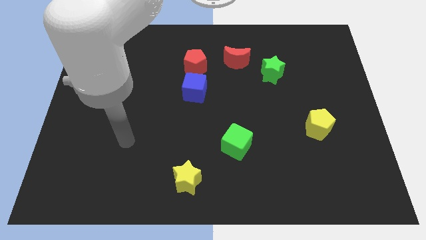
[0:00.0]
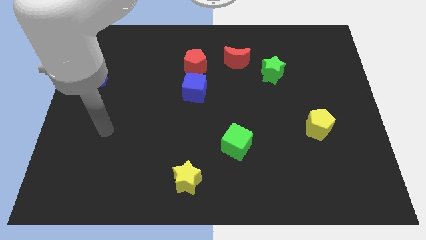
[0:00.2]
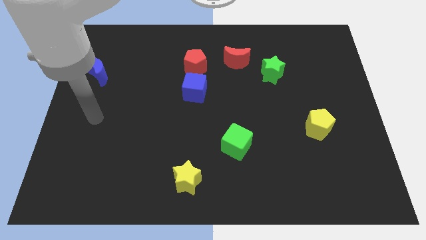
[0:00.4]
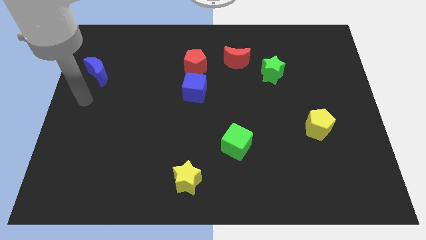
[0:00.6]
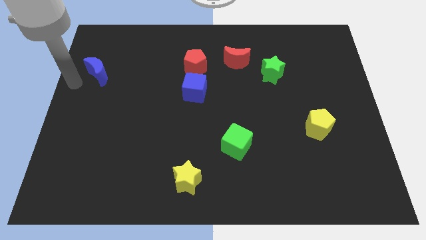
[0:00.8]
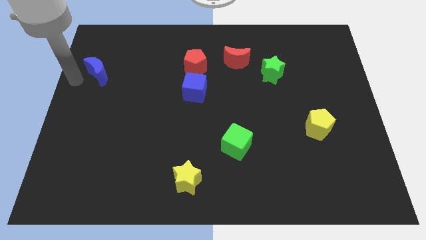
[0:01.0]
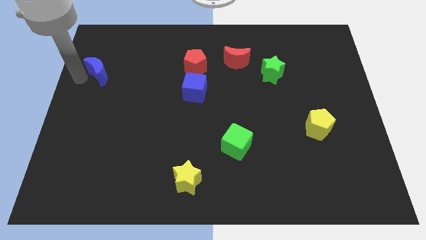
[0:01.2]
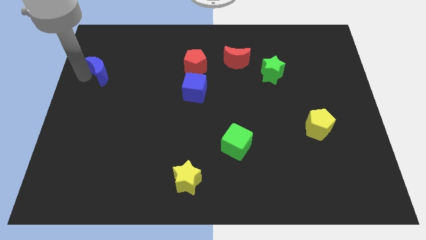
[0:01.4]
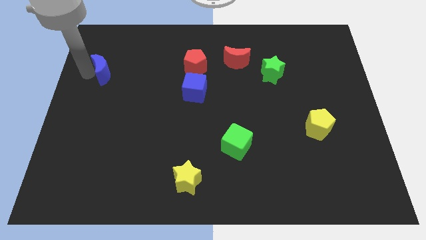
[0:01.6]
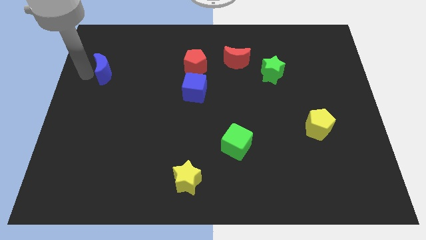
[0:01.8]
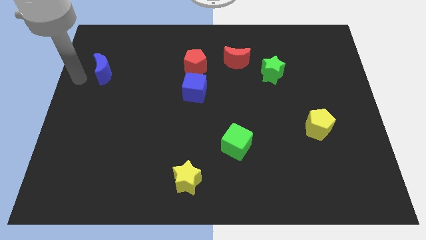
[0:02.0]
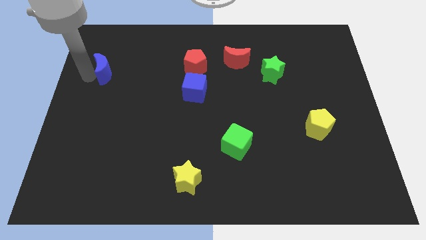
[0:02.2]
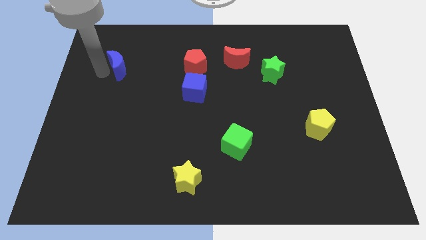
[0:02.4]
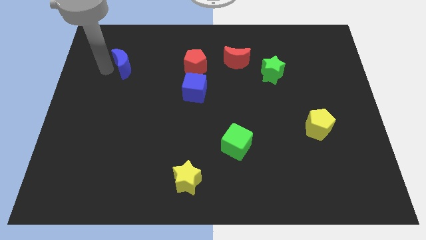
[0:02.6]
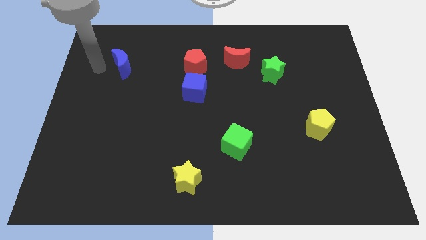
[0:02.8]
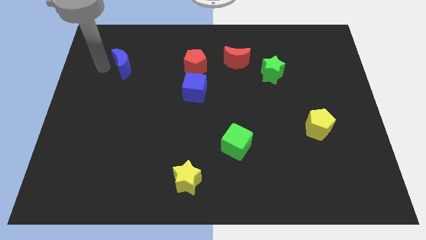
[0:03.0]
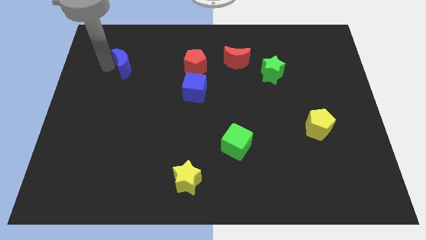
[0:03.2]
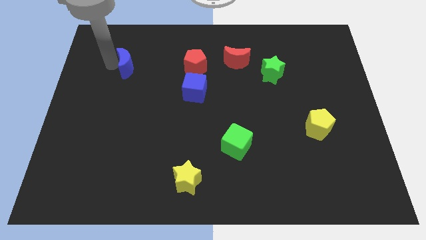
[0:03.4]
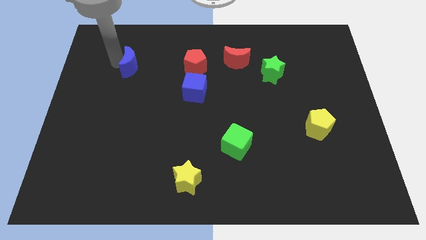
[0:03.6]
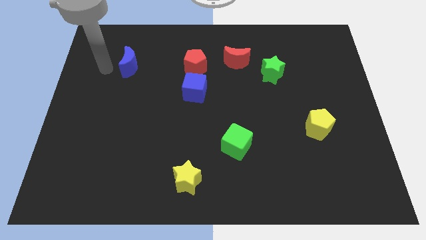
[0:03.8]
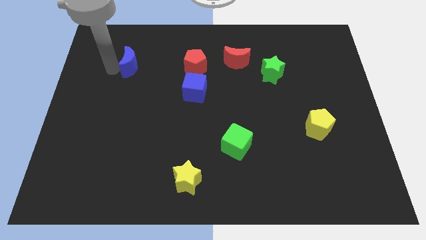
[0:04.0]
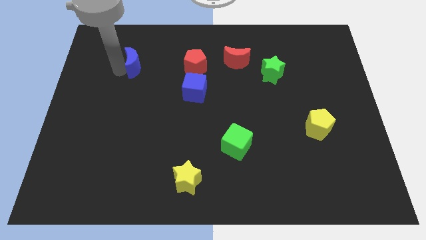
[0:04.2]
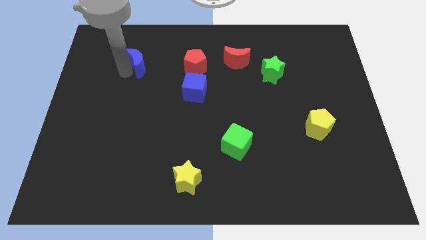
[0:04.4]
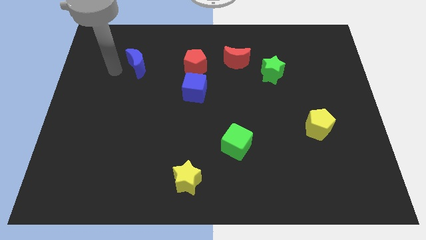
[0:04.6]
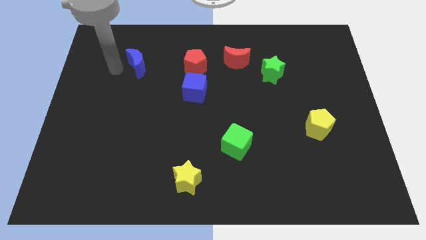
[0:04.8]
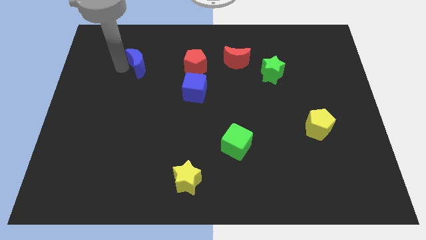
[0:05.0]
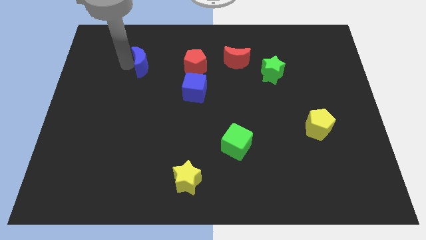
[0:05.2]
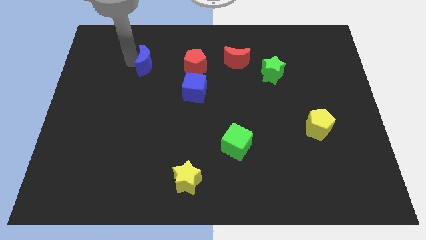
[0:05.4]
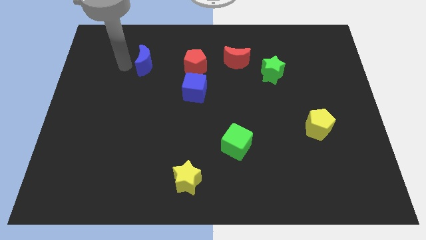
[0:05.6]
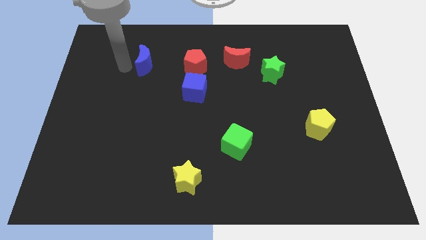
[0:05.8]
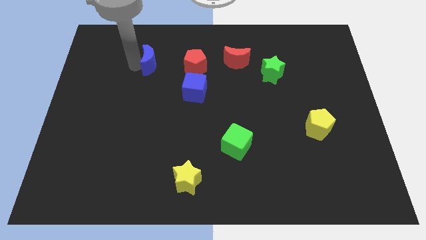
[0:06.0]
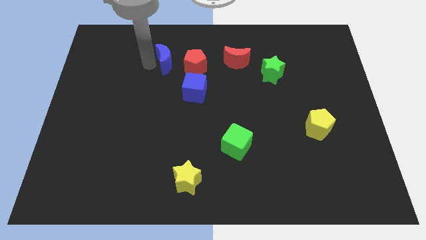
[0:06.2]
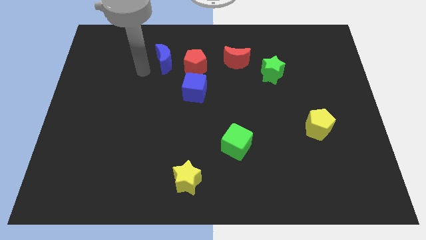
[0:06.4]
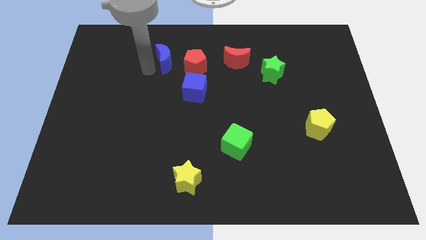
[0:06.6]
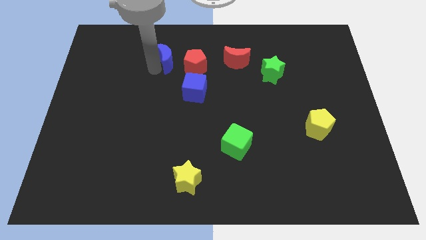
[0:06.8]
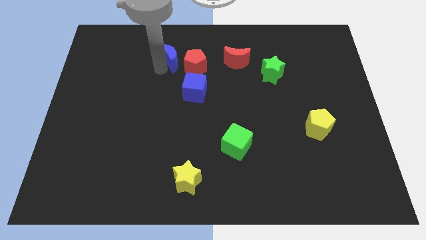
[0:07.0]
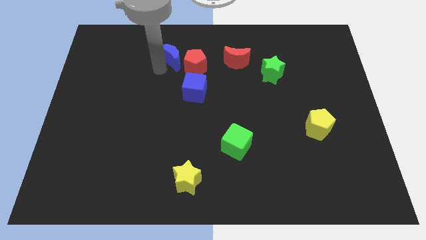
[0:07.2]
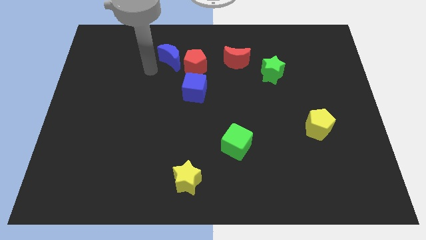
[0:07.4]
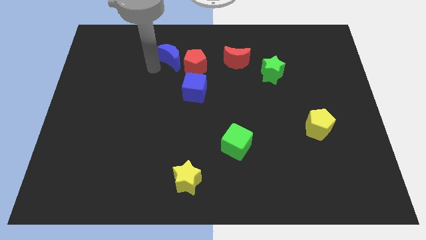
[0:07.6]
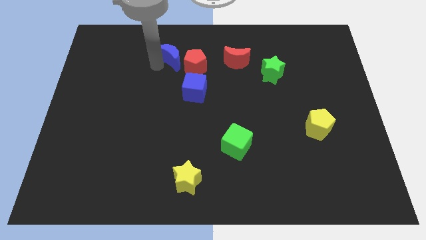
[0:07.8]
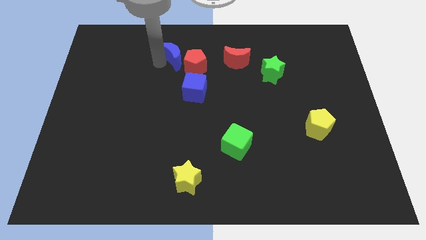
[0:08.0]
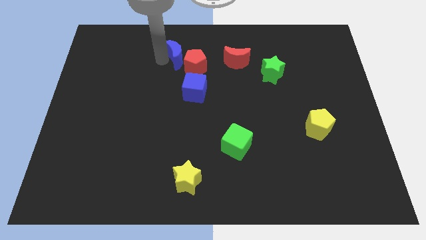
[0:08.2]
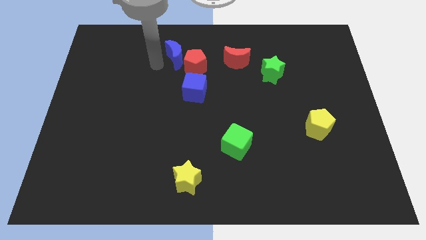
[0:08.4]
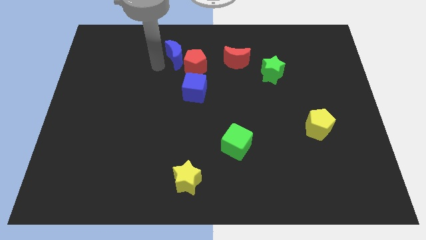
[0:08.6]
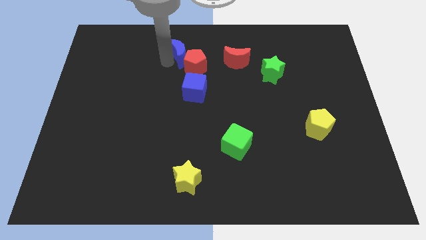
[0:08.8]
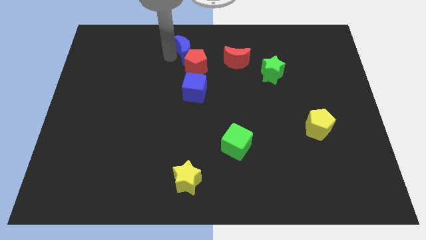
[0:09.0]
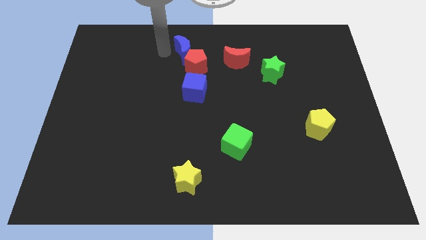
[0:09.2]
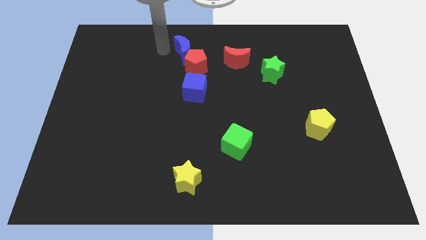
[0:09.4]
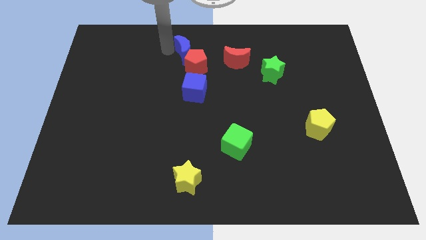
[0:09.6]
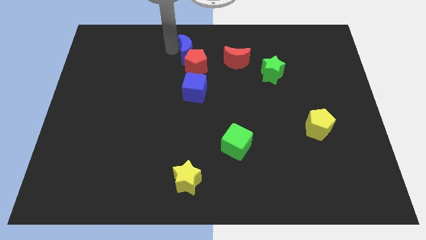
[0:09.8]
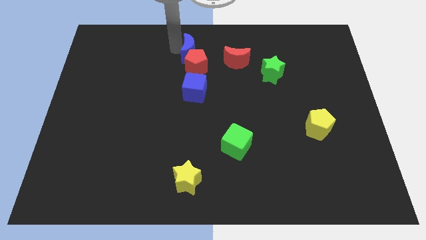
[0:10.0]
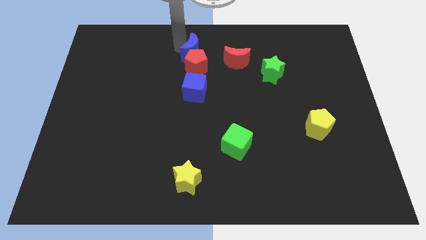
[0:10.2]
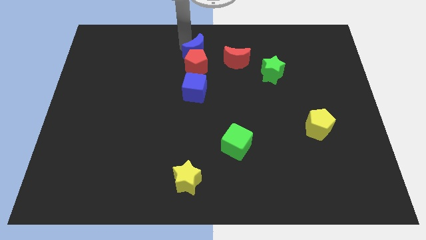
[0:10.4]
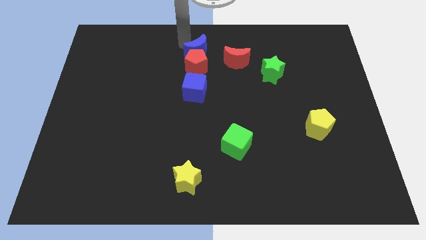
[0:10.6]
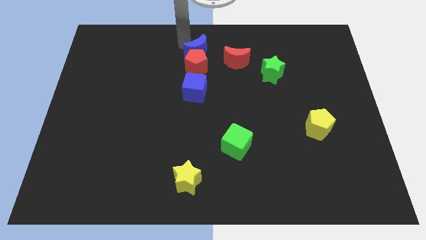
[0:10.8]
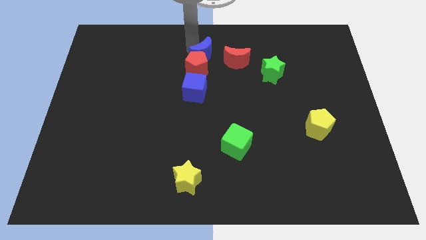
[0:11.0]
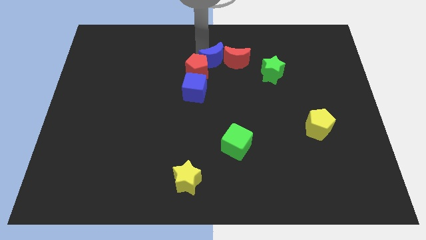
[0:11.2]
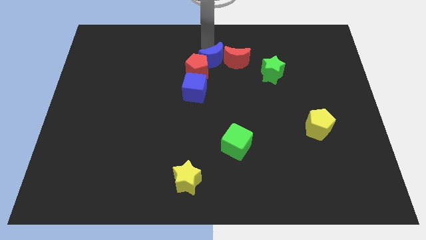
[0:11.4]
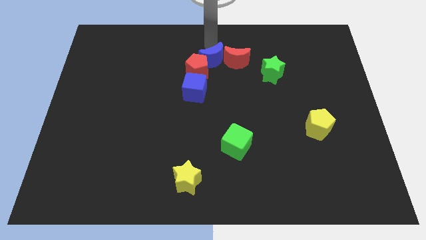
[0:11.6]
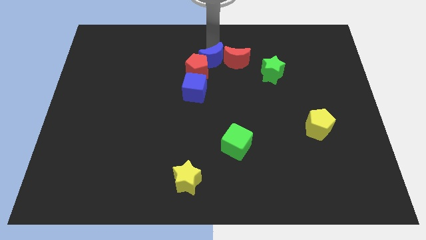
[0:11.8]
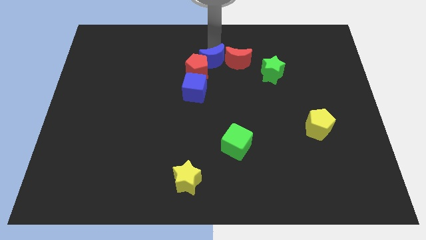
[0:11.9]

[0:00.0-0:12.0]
put the blue moon diagonally up and to the right of the blue cube

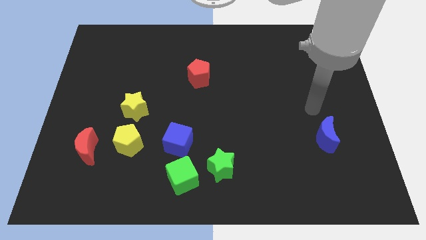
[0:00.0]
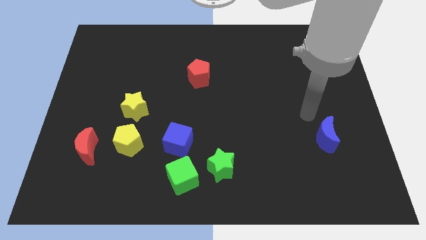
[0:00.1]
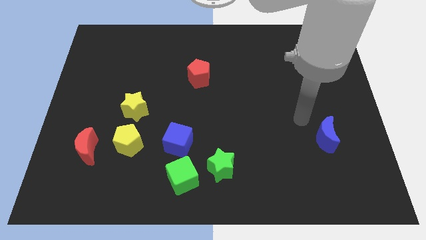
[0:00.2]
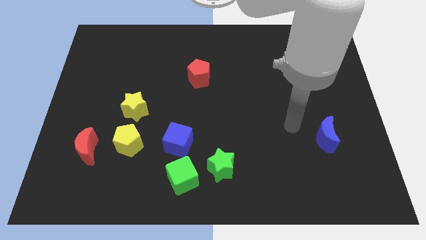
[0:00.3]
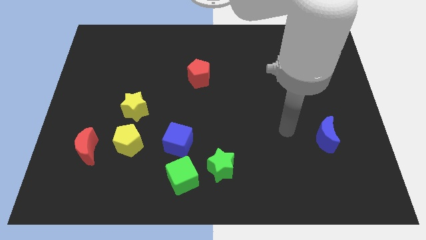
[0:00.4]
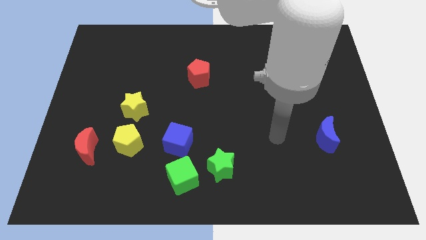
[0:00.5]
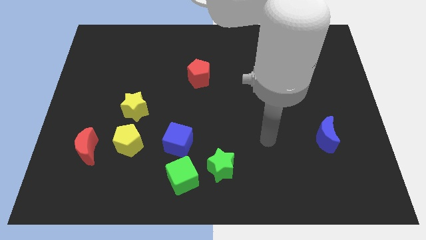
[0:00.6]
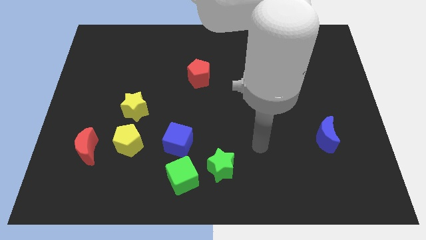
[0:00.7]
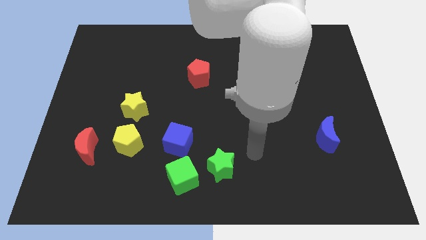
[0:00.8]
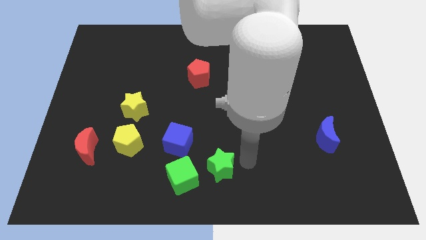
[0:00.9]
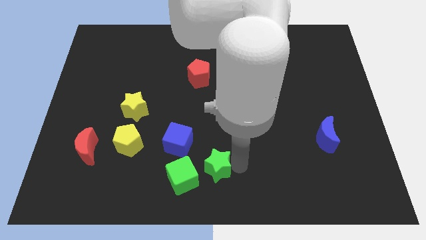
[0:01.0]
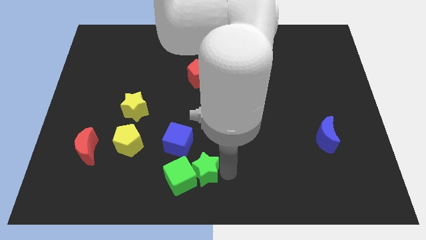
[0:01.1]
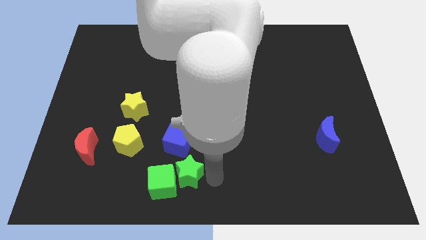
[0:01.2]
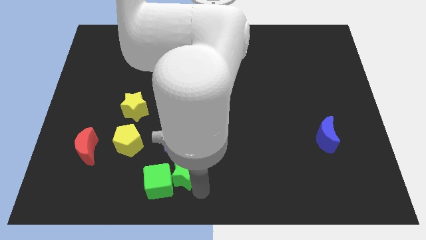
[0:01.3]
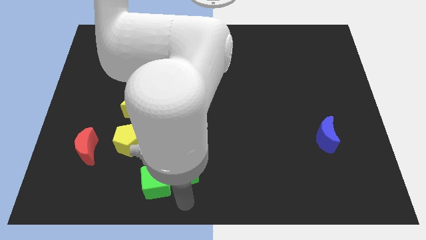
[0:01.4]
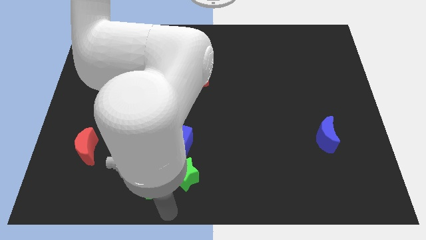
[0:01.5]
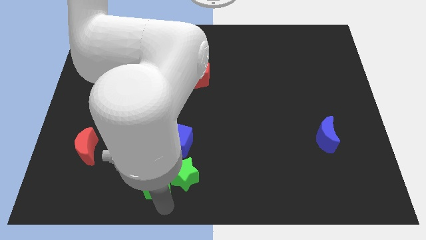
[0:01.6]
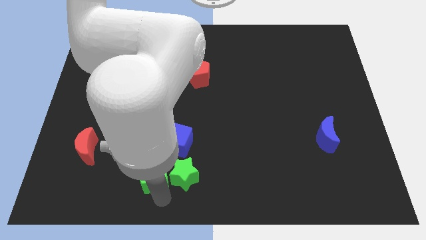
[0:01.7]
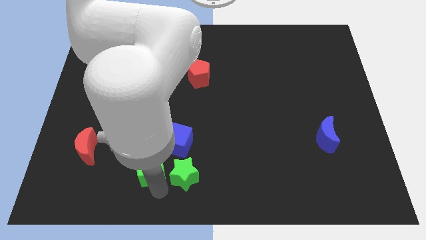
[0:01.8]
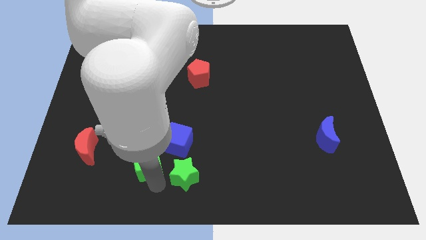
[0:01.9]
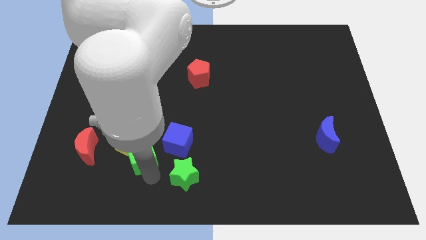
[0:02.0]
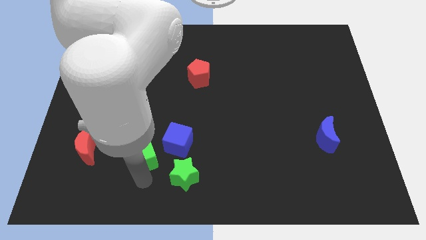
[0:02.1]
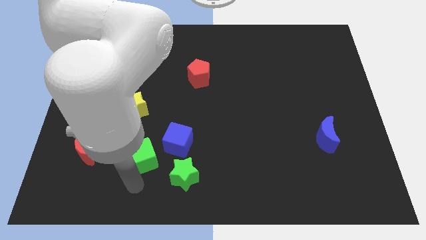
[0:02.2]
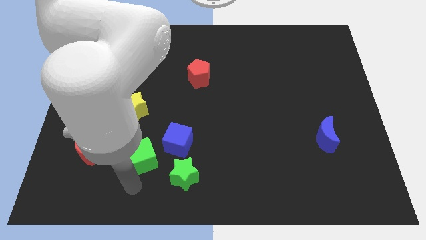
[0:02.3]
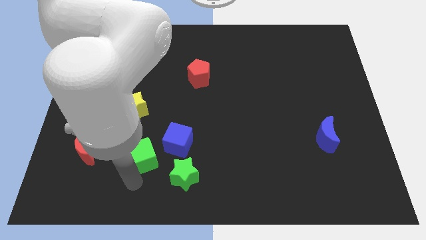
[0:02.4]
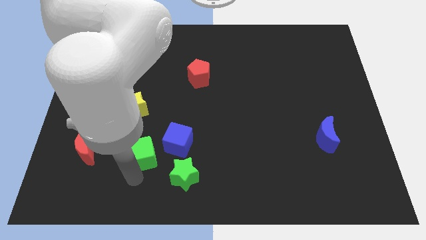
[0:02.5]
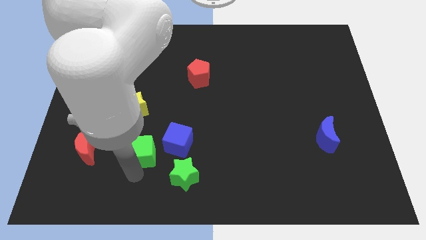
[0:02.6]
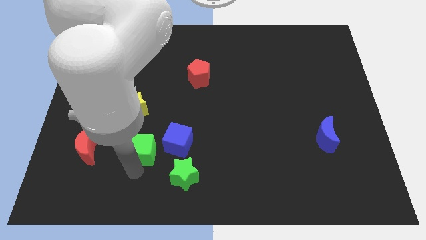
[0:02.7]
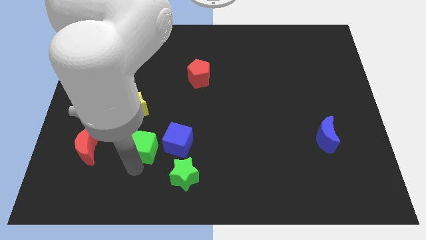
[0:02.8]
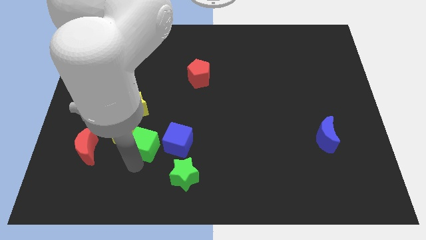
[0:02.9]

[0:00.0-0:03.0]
put the green cube to the bottom right of the yellow star
